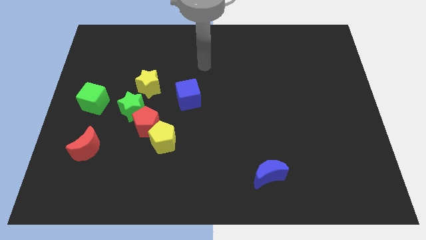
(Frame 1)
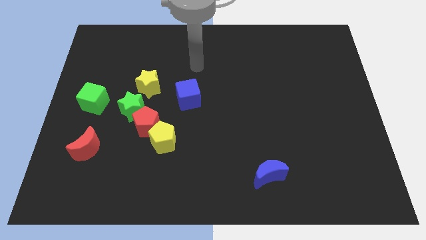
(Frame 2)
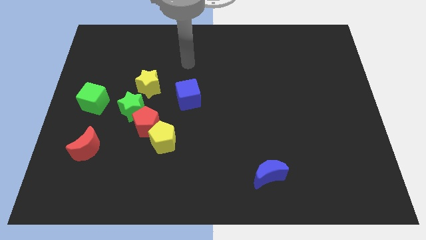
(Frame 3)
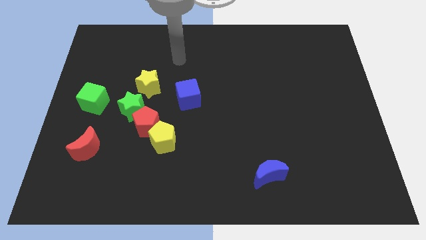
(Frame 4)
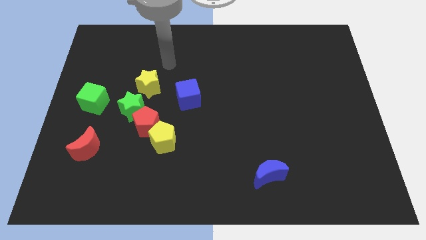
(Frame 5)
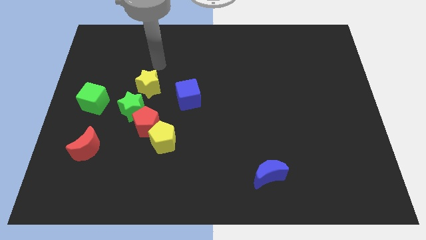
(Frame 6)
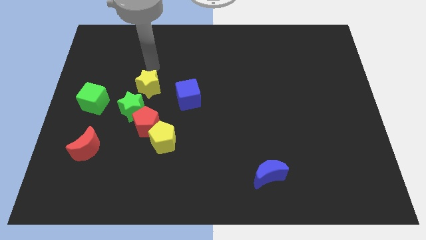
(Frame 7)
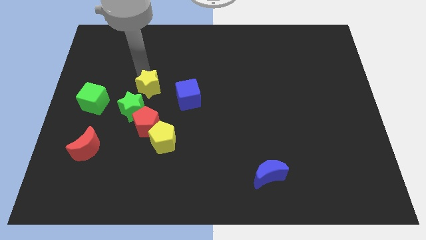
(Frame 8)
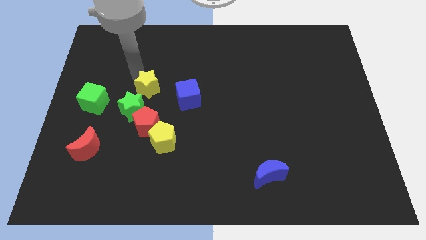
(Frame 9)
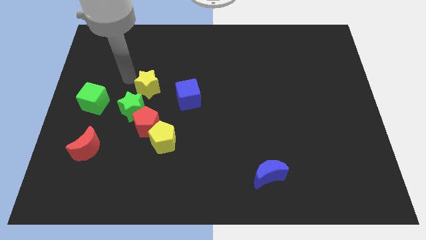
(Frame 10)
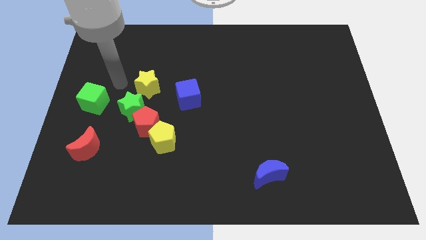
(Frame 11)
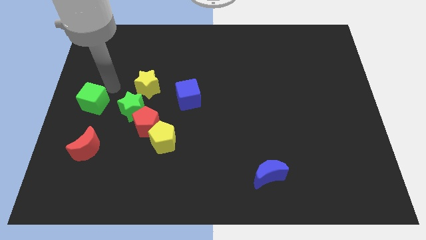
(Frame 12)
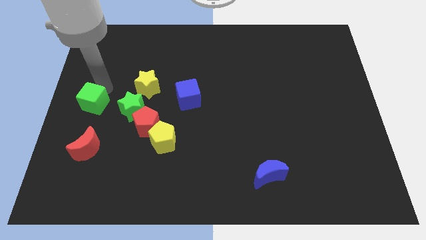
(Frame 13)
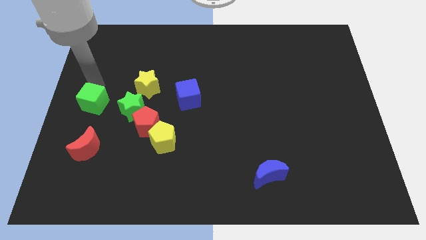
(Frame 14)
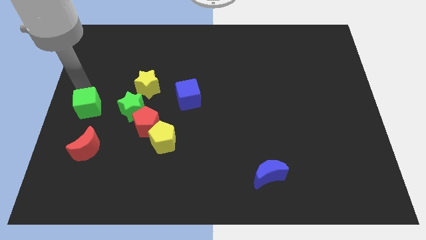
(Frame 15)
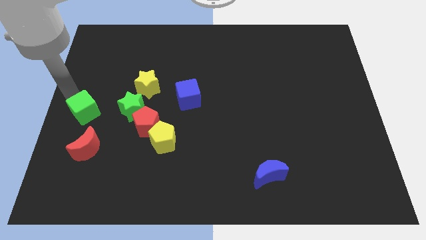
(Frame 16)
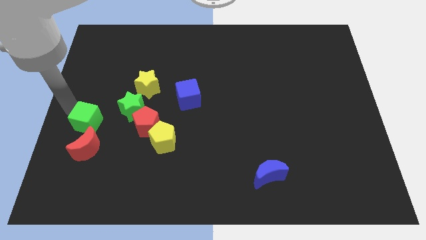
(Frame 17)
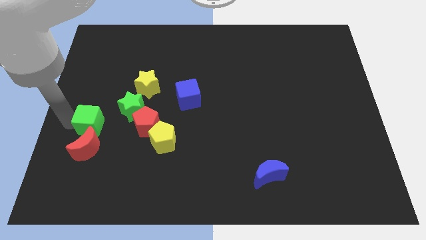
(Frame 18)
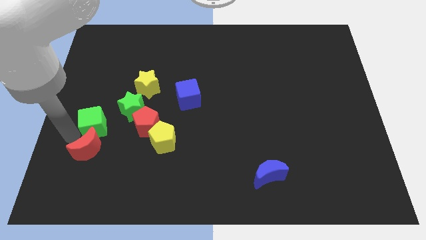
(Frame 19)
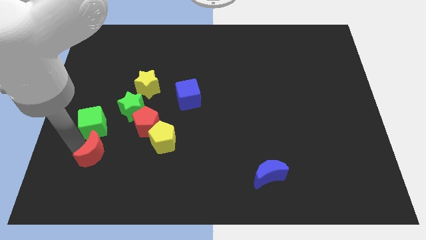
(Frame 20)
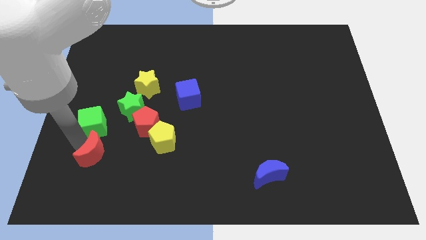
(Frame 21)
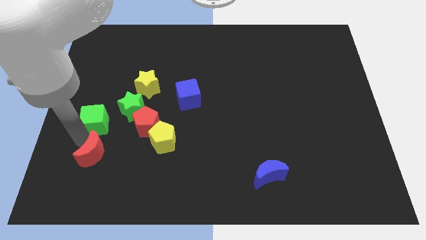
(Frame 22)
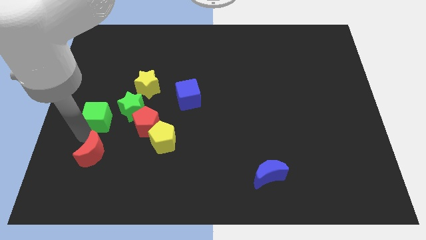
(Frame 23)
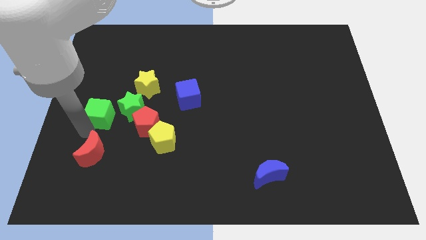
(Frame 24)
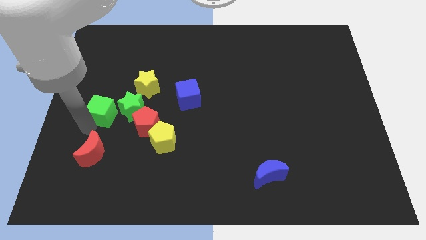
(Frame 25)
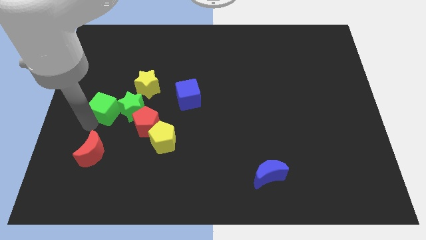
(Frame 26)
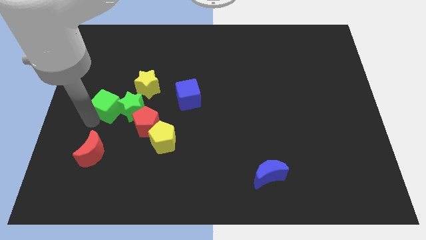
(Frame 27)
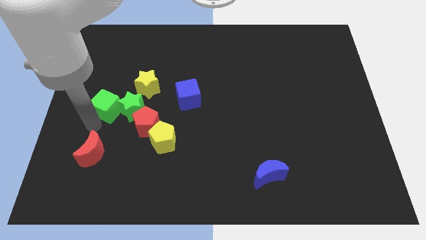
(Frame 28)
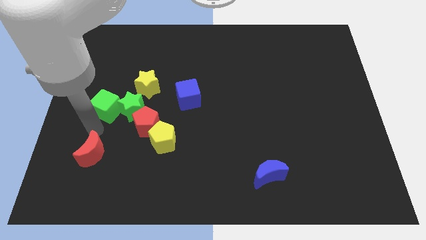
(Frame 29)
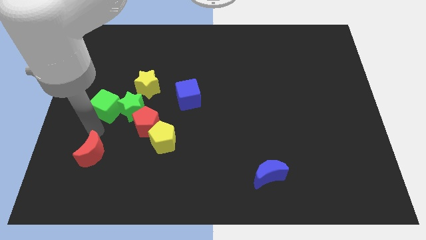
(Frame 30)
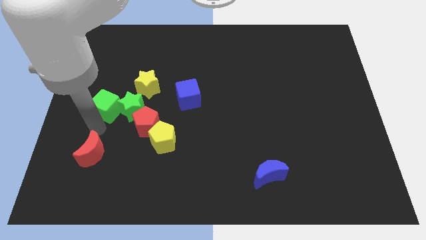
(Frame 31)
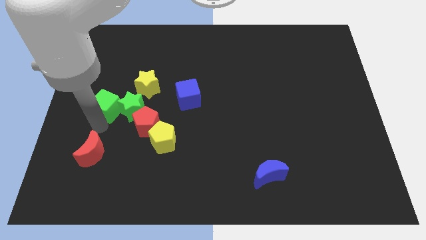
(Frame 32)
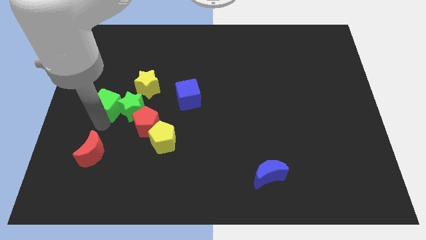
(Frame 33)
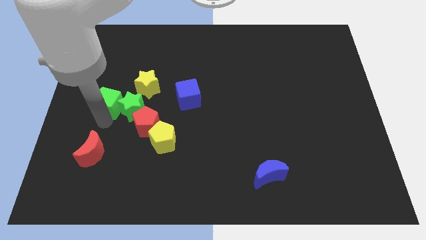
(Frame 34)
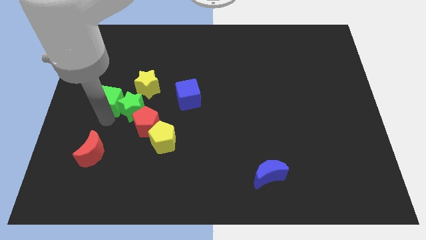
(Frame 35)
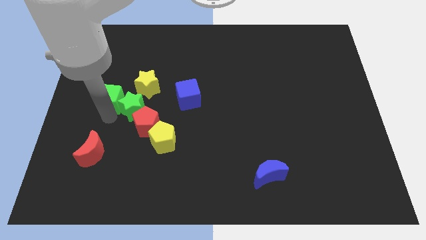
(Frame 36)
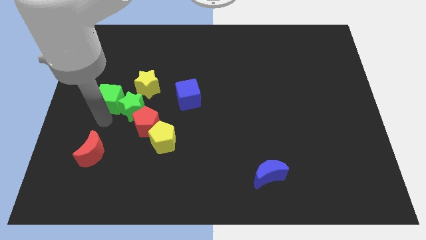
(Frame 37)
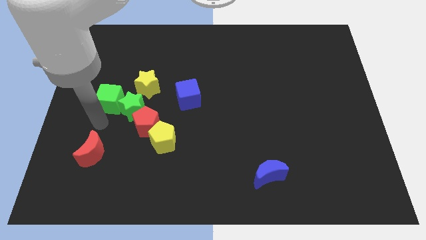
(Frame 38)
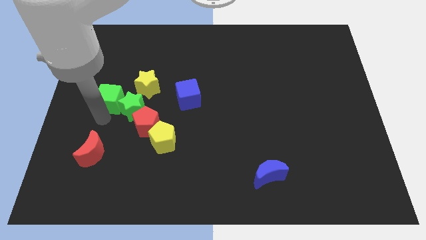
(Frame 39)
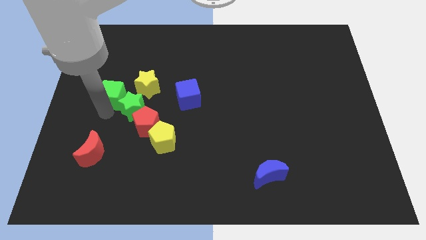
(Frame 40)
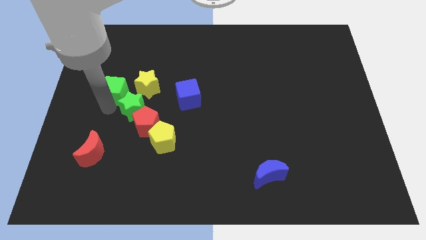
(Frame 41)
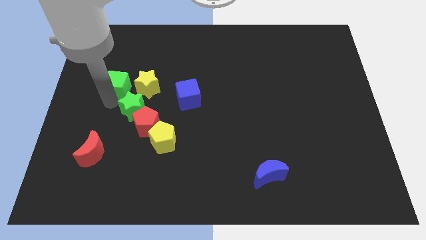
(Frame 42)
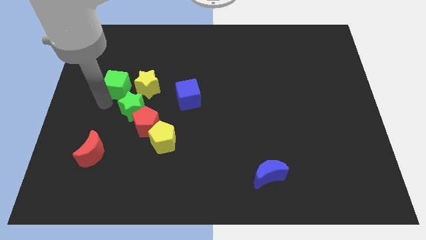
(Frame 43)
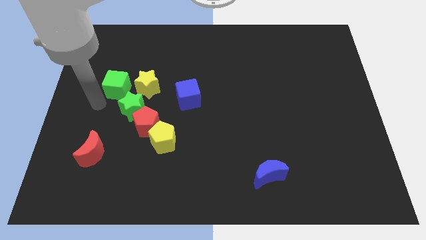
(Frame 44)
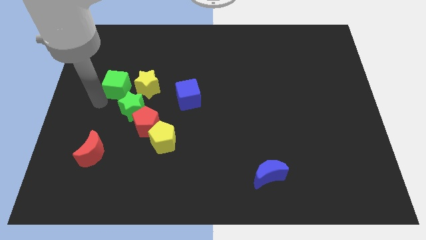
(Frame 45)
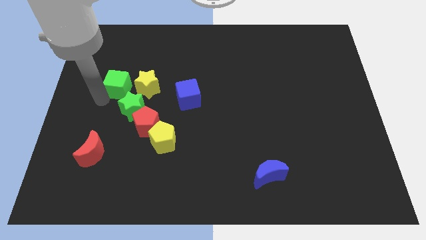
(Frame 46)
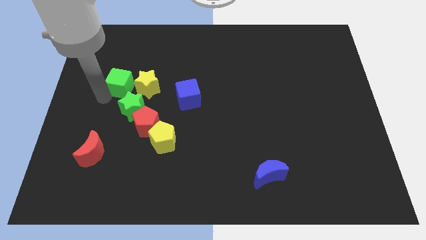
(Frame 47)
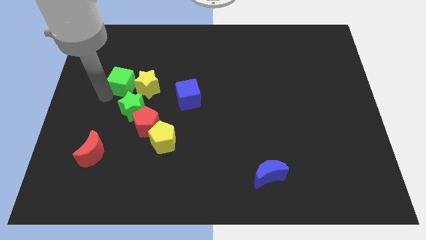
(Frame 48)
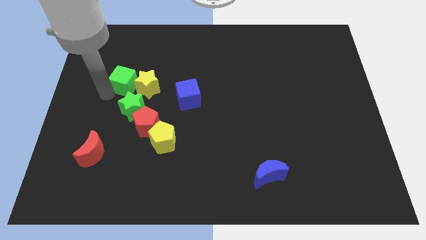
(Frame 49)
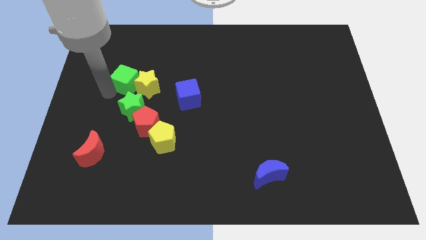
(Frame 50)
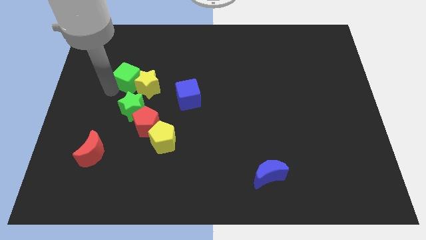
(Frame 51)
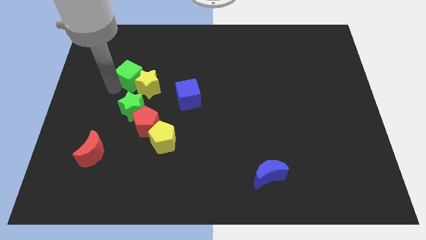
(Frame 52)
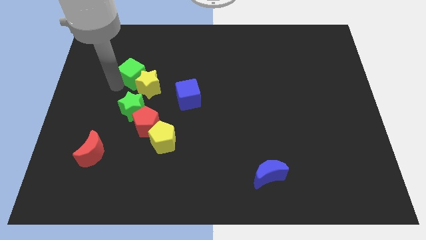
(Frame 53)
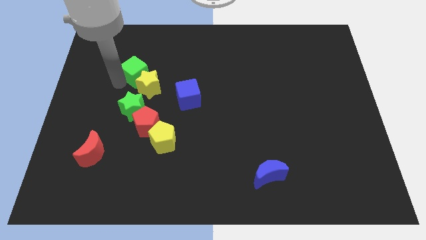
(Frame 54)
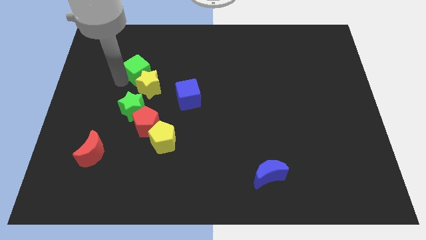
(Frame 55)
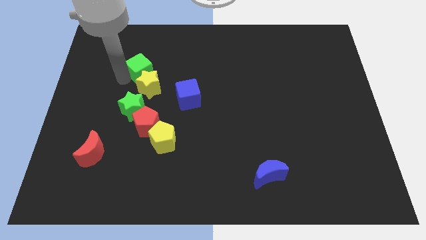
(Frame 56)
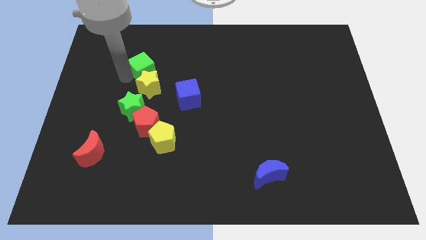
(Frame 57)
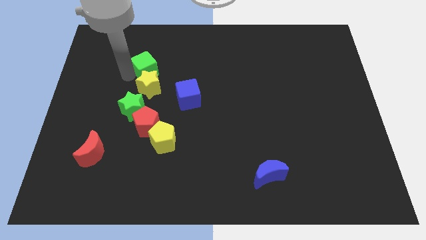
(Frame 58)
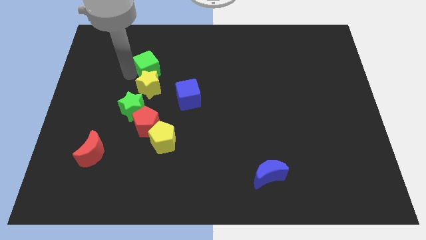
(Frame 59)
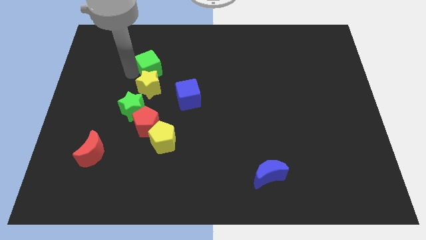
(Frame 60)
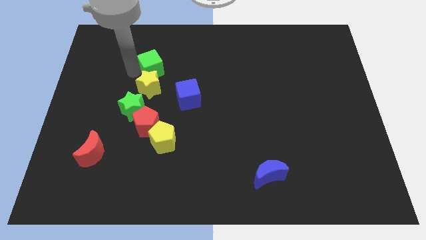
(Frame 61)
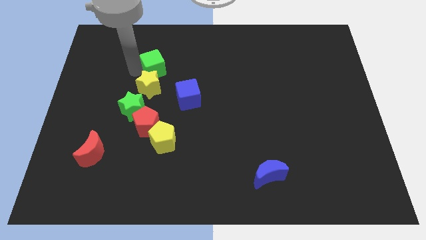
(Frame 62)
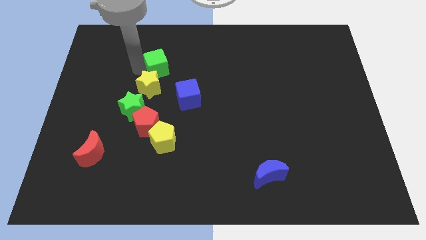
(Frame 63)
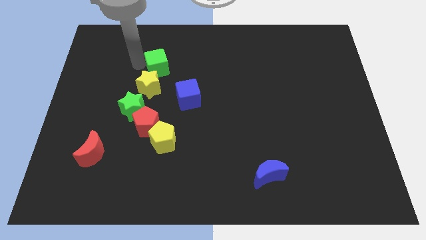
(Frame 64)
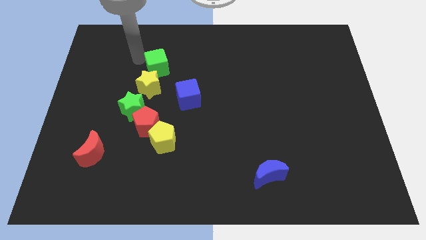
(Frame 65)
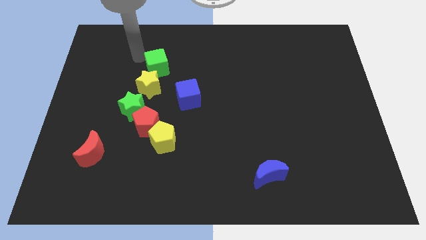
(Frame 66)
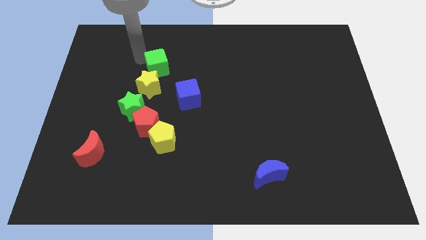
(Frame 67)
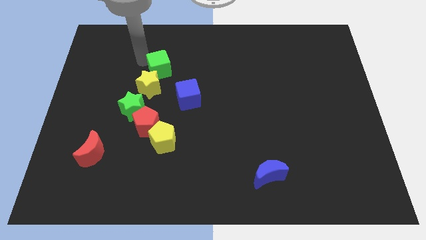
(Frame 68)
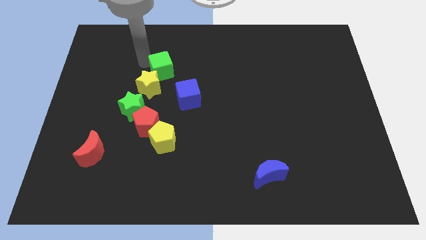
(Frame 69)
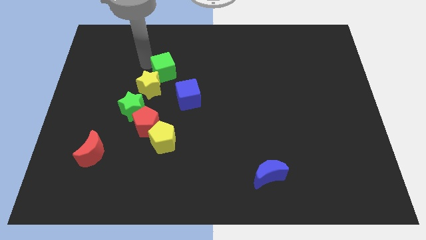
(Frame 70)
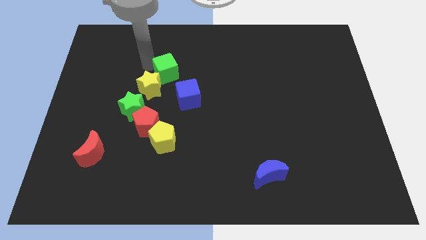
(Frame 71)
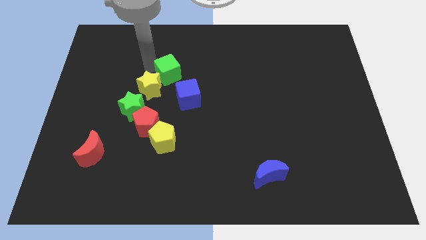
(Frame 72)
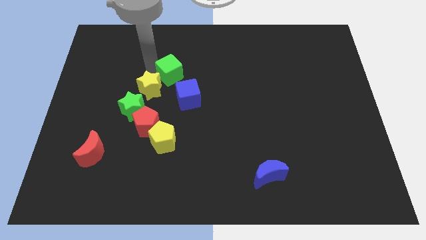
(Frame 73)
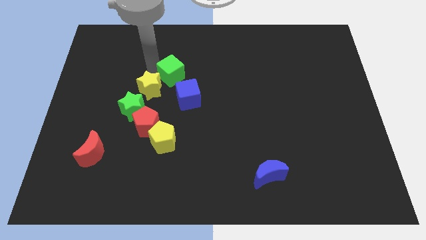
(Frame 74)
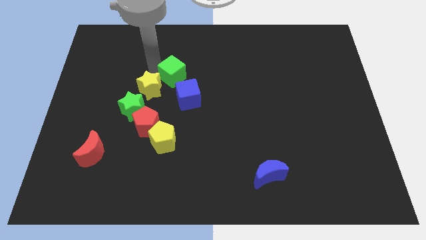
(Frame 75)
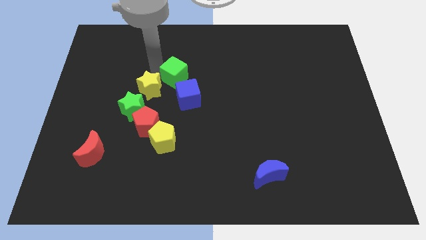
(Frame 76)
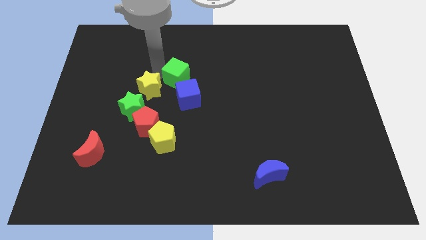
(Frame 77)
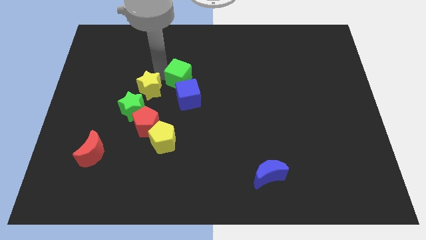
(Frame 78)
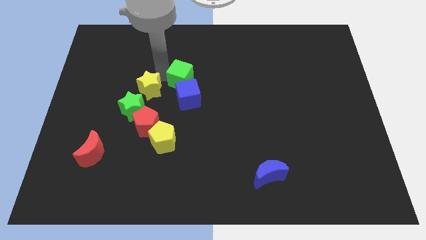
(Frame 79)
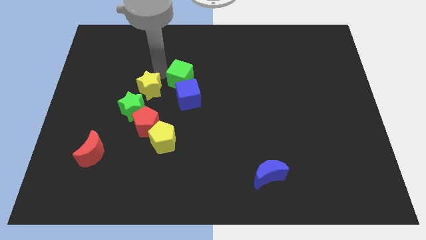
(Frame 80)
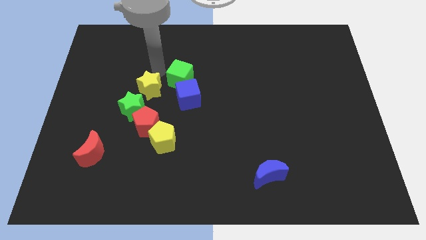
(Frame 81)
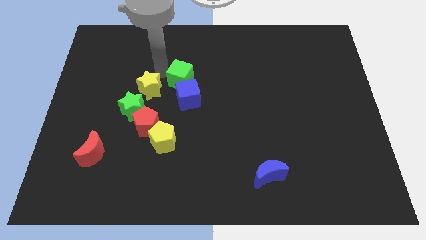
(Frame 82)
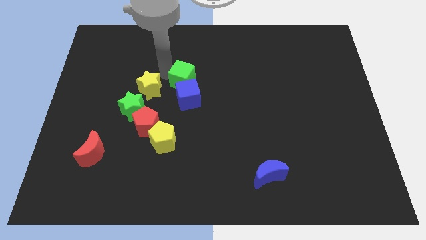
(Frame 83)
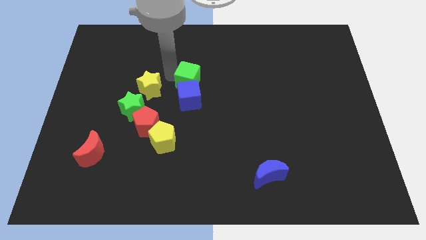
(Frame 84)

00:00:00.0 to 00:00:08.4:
push the green cube to the right
